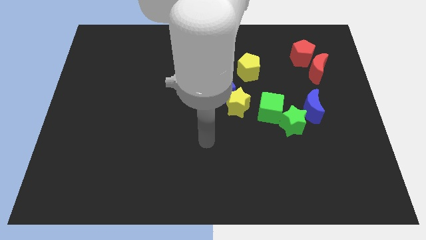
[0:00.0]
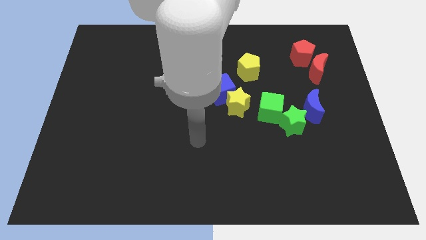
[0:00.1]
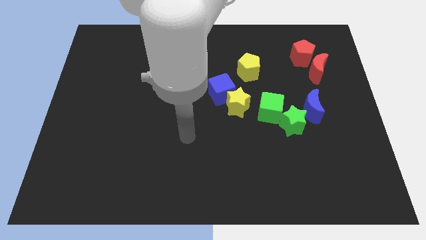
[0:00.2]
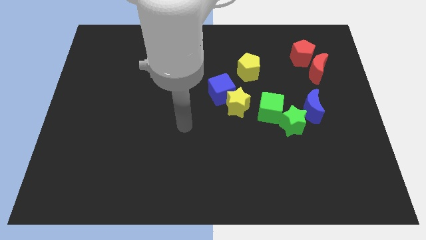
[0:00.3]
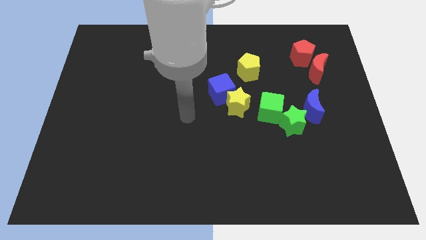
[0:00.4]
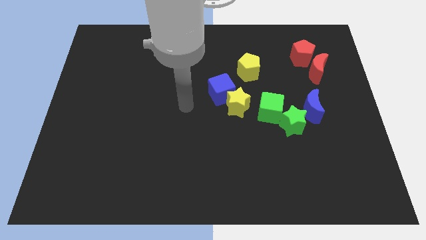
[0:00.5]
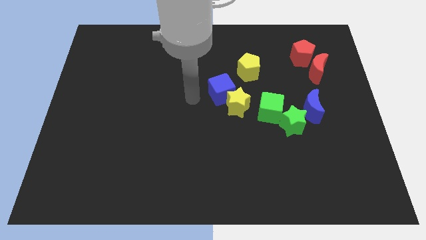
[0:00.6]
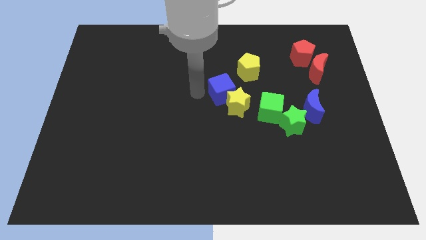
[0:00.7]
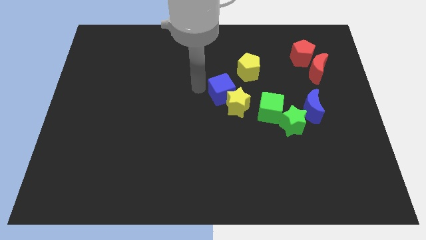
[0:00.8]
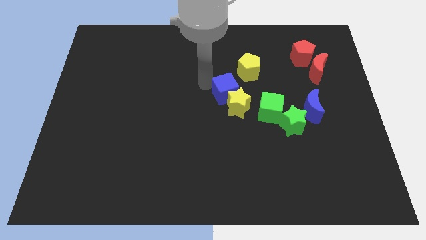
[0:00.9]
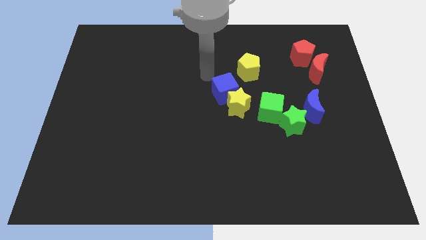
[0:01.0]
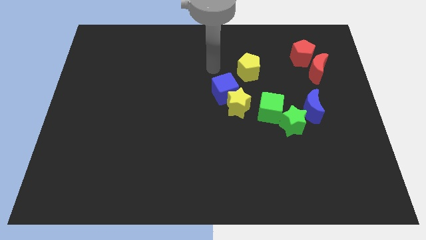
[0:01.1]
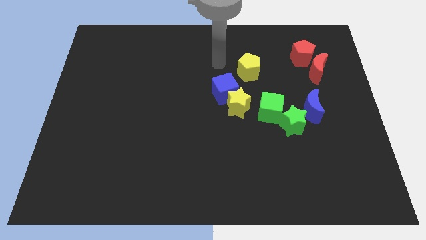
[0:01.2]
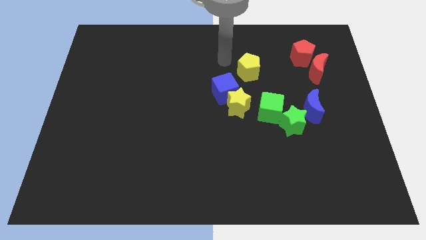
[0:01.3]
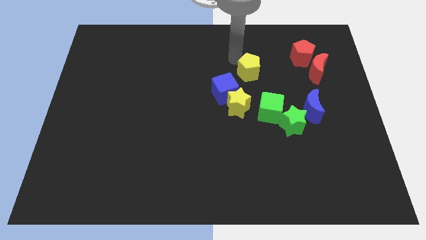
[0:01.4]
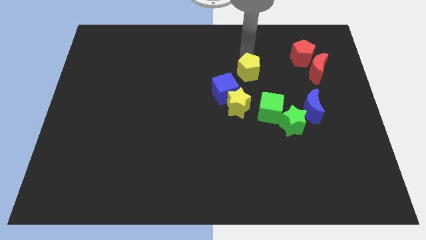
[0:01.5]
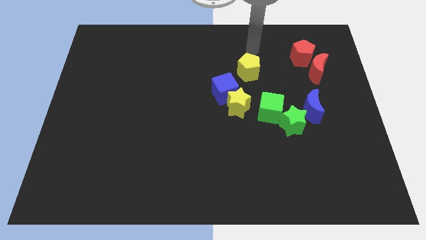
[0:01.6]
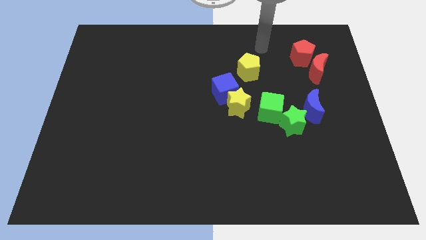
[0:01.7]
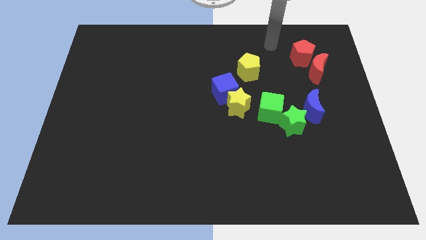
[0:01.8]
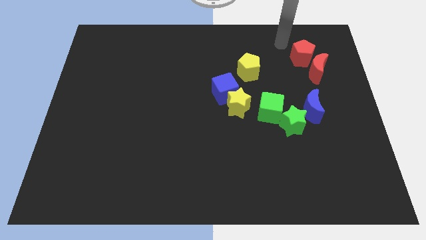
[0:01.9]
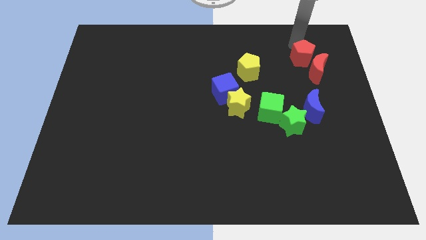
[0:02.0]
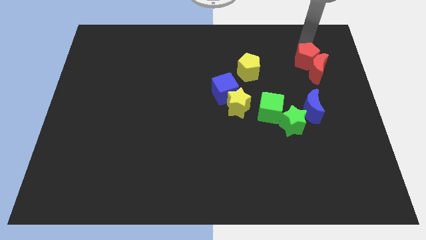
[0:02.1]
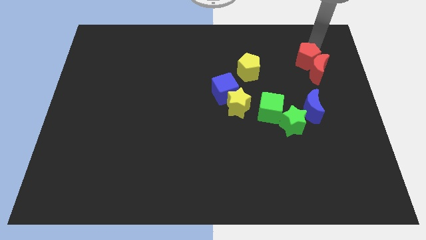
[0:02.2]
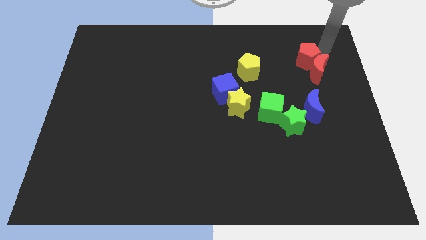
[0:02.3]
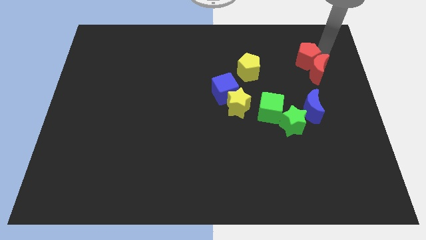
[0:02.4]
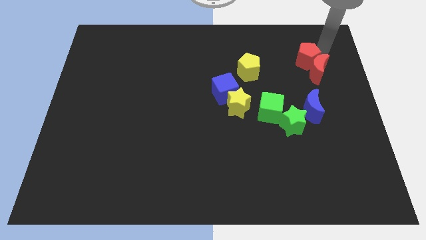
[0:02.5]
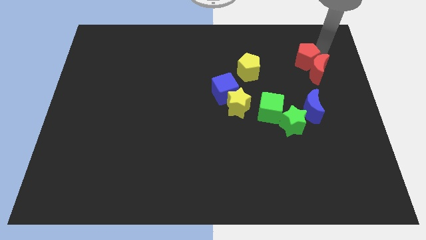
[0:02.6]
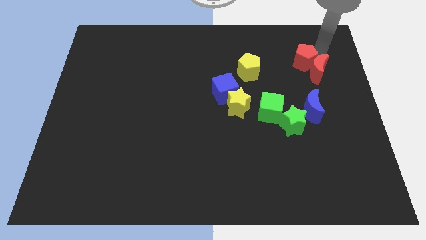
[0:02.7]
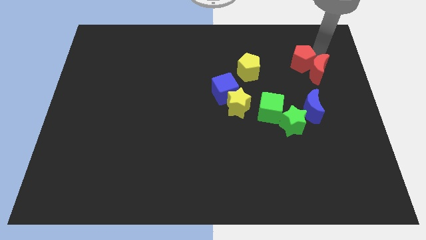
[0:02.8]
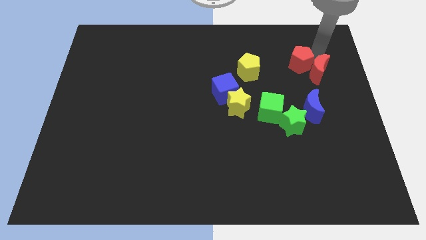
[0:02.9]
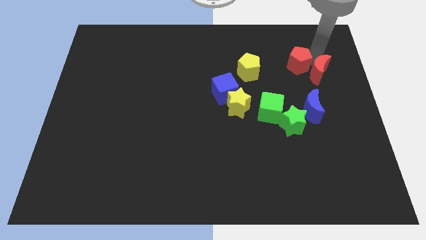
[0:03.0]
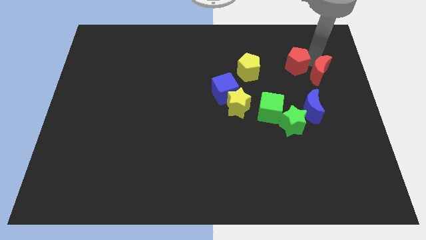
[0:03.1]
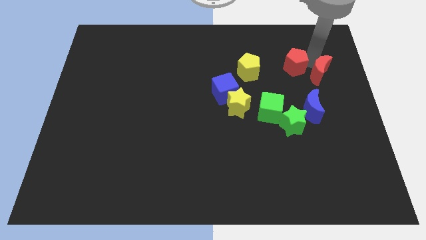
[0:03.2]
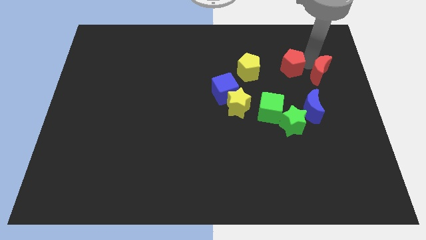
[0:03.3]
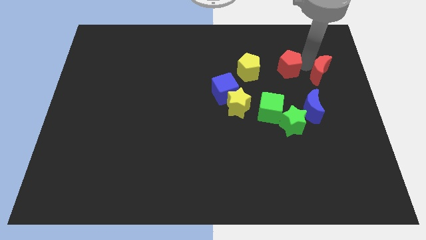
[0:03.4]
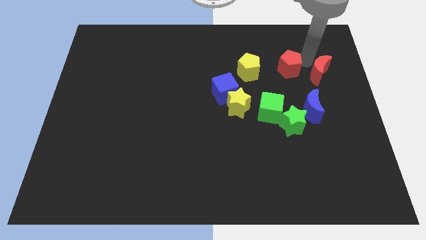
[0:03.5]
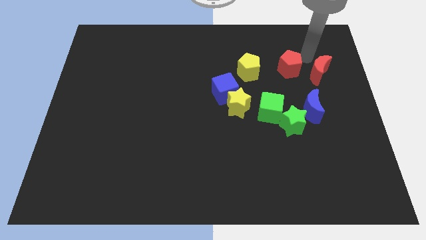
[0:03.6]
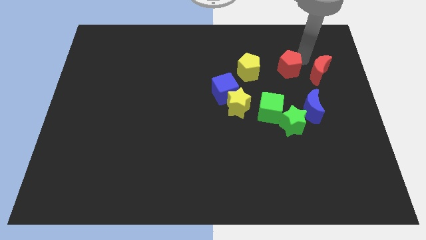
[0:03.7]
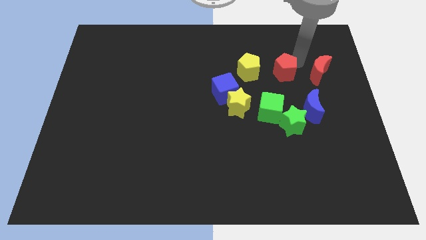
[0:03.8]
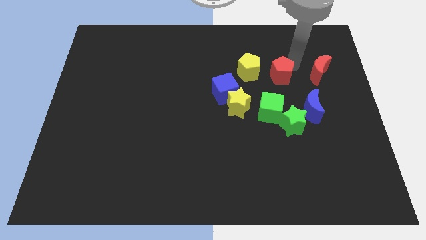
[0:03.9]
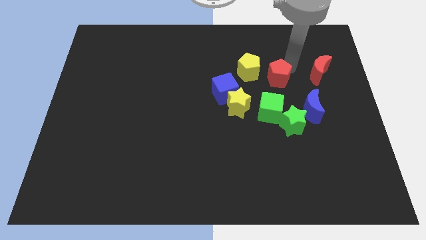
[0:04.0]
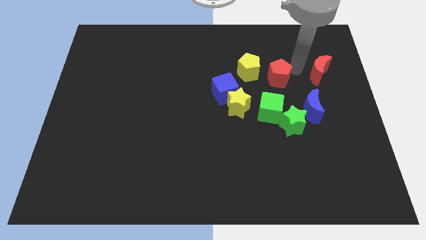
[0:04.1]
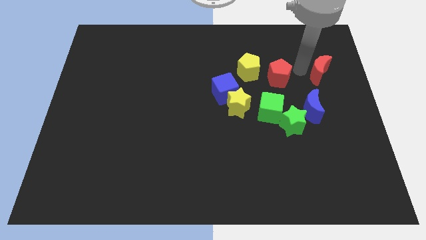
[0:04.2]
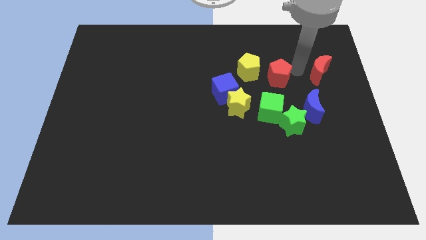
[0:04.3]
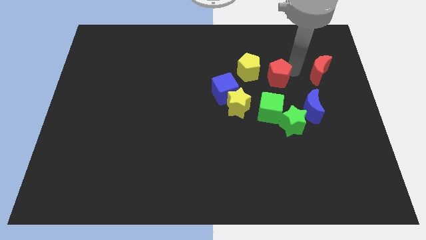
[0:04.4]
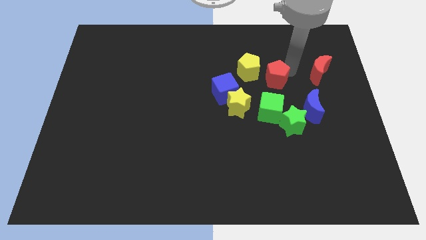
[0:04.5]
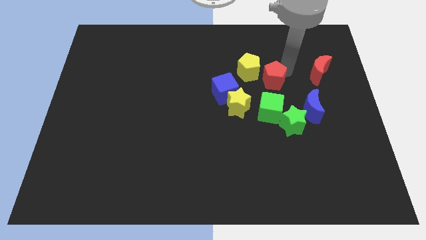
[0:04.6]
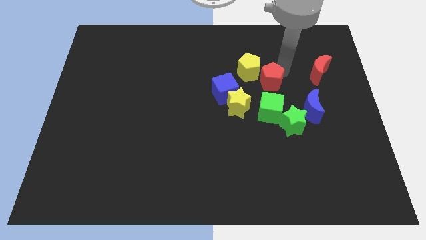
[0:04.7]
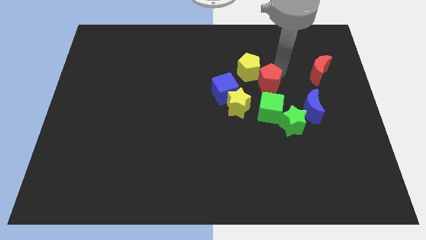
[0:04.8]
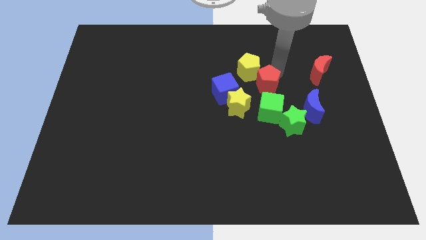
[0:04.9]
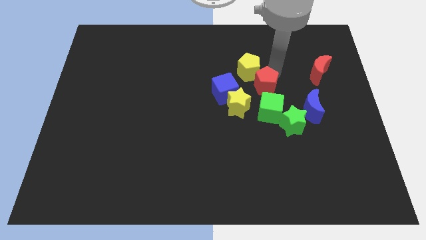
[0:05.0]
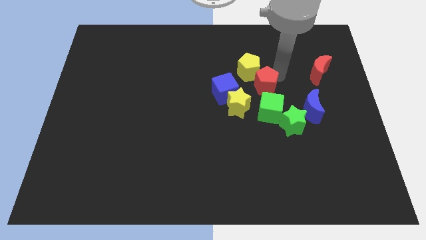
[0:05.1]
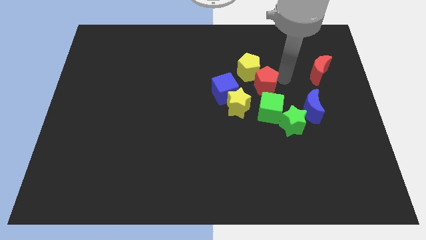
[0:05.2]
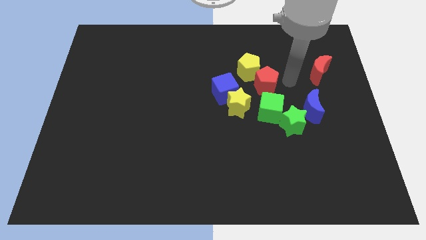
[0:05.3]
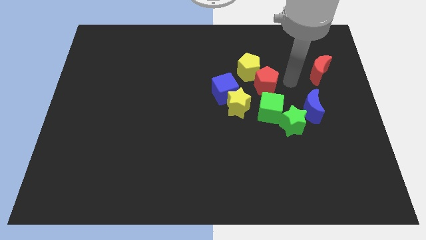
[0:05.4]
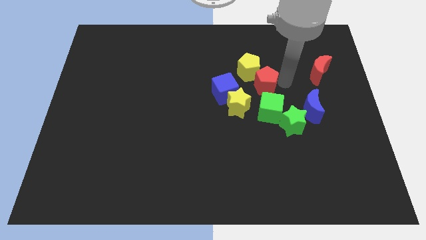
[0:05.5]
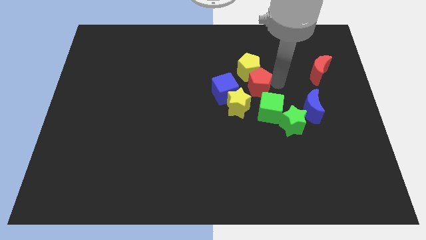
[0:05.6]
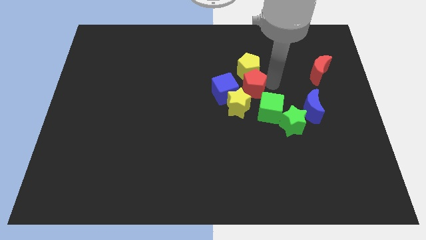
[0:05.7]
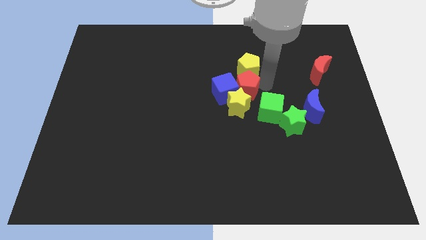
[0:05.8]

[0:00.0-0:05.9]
move the red pentagon next to the blue cube

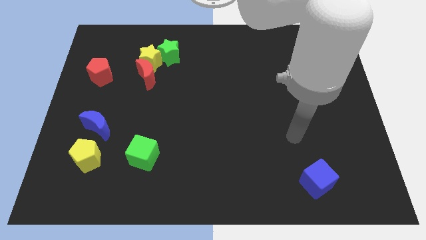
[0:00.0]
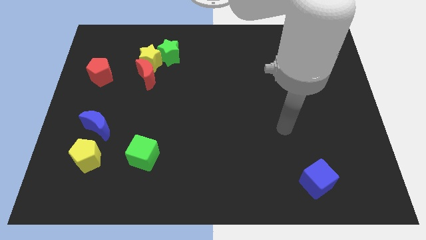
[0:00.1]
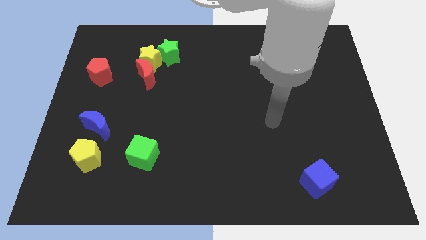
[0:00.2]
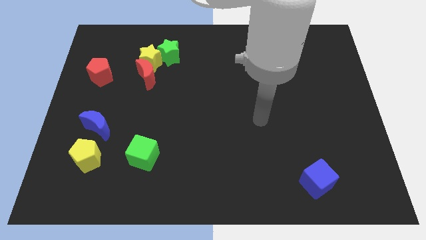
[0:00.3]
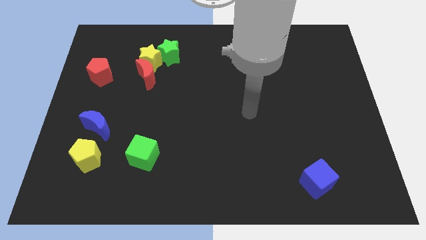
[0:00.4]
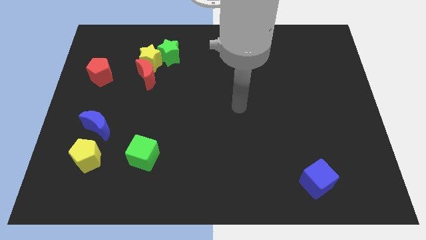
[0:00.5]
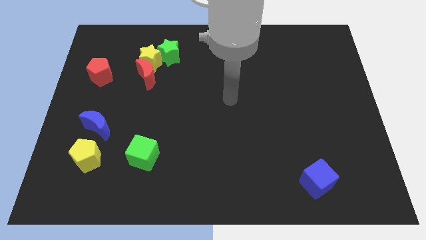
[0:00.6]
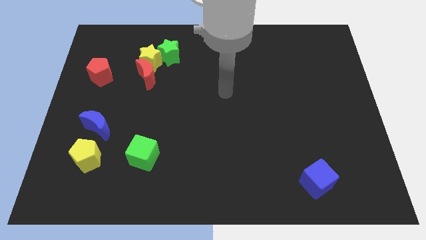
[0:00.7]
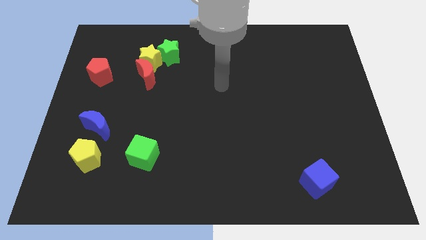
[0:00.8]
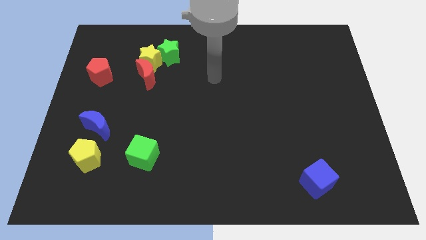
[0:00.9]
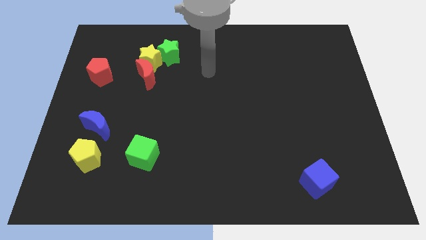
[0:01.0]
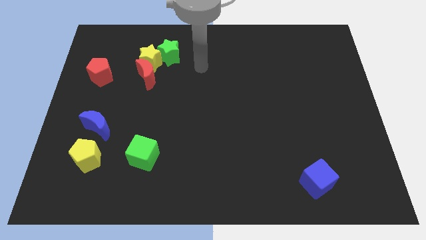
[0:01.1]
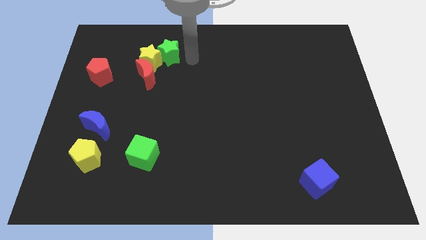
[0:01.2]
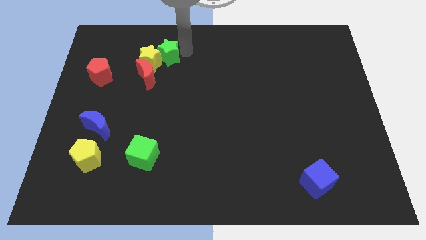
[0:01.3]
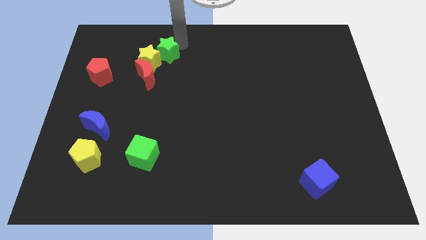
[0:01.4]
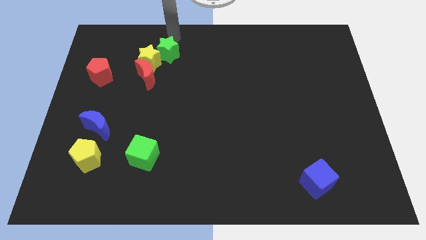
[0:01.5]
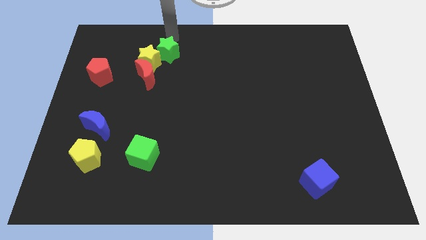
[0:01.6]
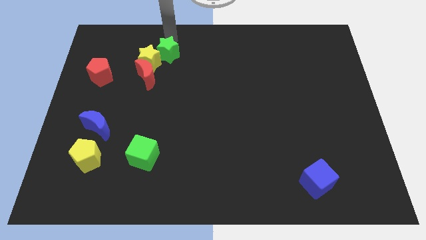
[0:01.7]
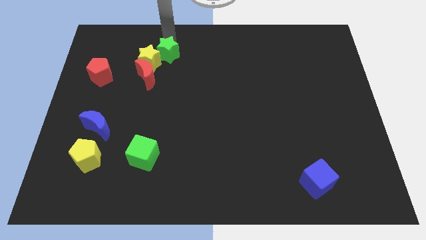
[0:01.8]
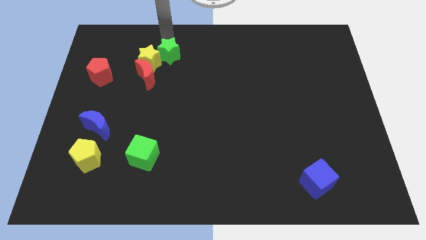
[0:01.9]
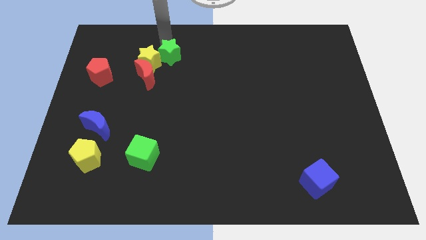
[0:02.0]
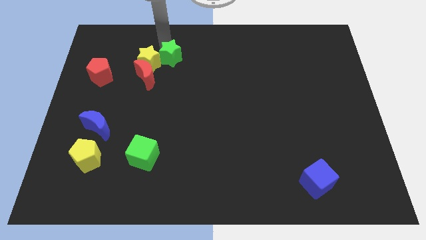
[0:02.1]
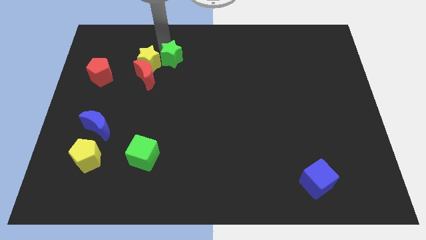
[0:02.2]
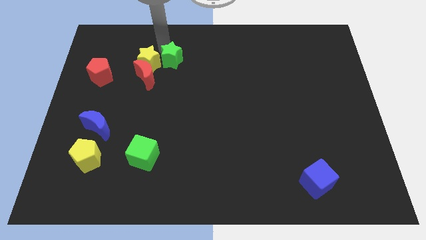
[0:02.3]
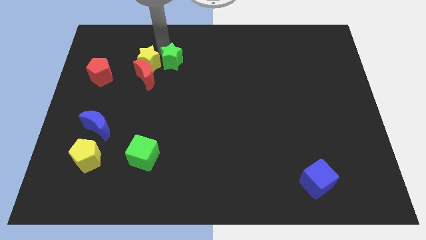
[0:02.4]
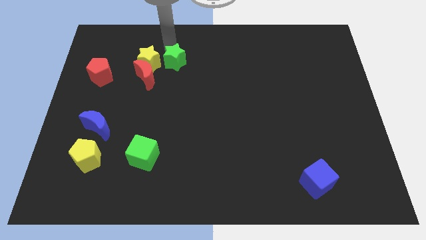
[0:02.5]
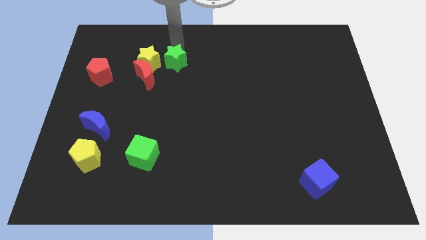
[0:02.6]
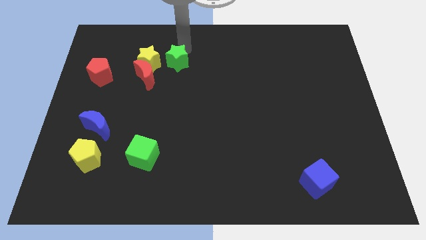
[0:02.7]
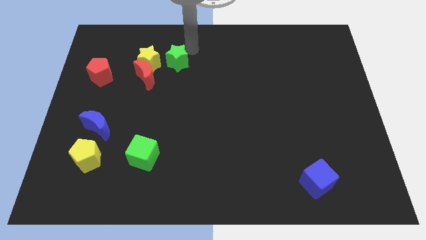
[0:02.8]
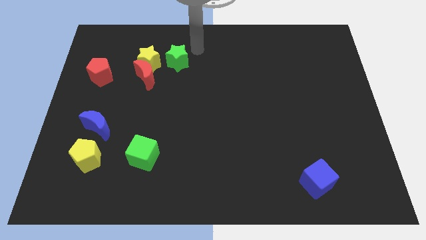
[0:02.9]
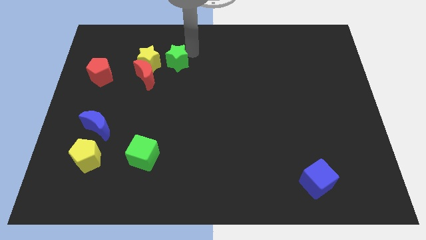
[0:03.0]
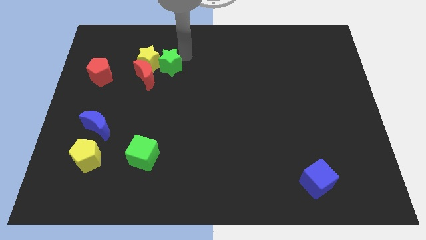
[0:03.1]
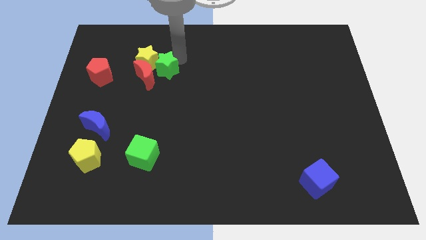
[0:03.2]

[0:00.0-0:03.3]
move the green star to the red moon
